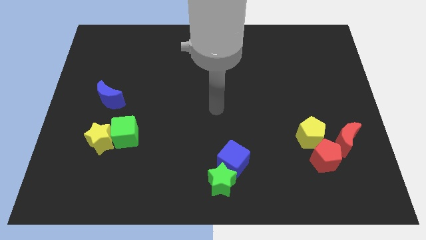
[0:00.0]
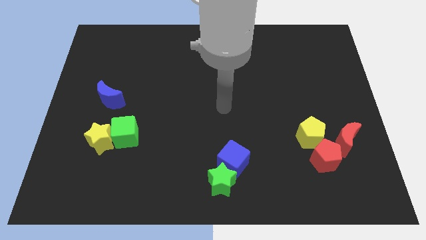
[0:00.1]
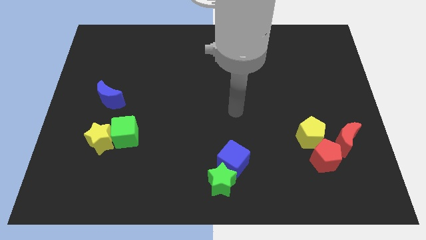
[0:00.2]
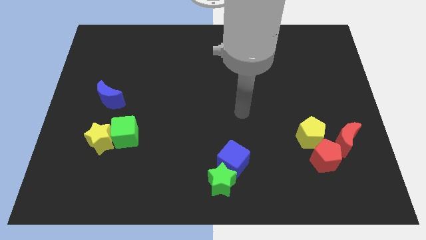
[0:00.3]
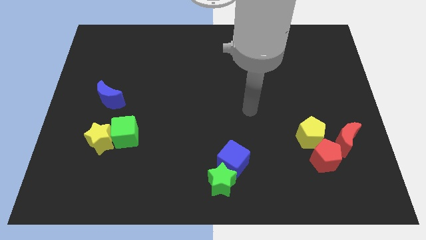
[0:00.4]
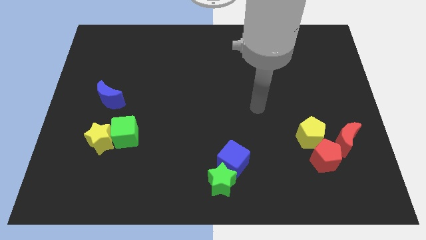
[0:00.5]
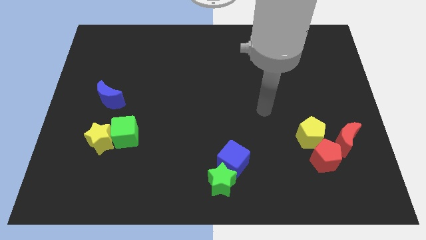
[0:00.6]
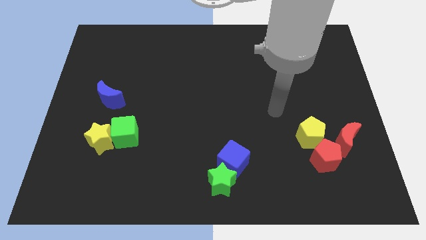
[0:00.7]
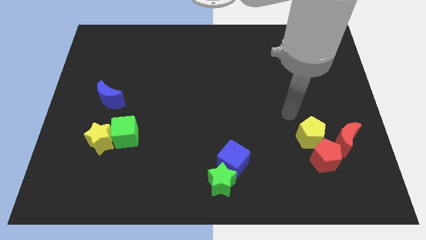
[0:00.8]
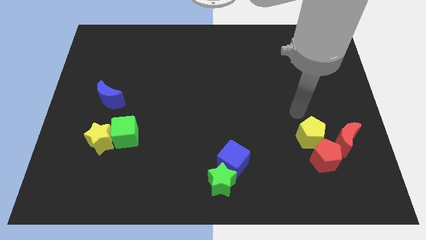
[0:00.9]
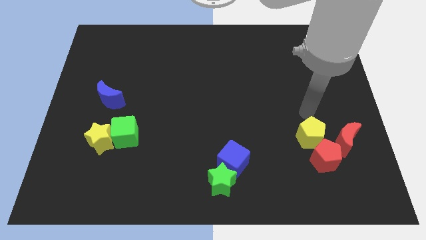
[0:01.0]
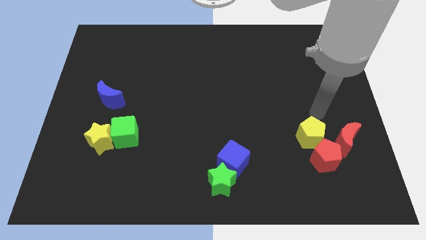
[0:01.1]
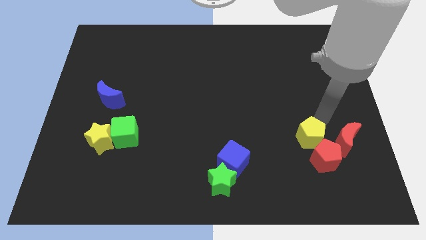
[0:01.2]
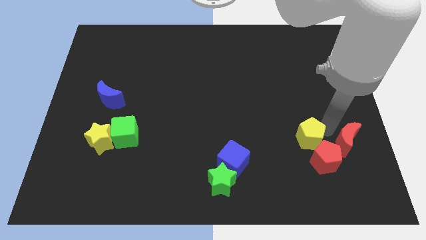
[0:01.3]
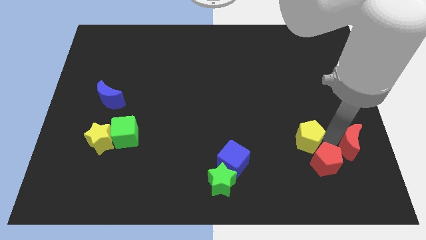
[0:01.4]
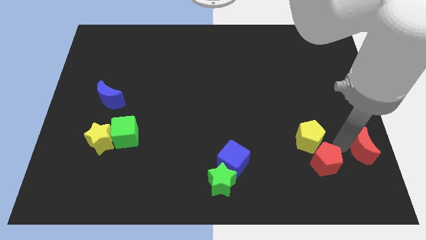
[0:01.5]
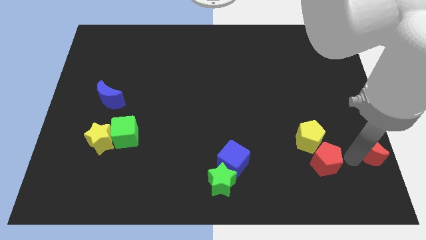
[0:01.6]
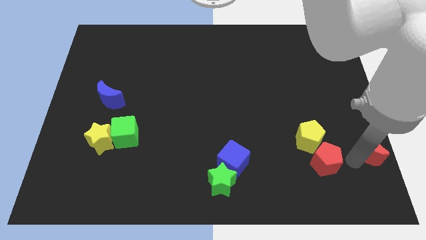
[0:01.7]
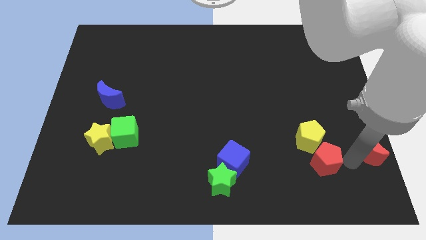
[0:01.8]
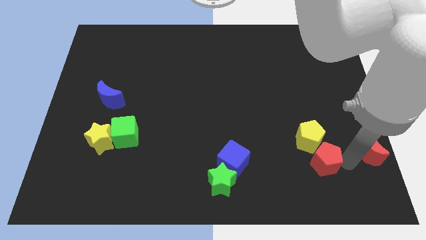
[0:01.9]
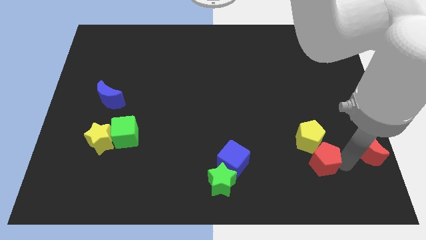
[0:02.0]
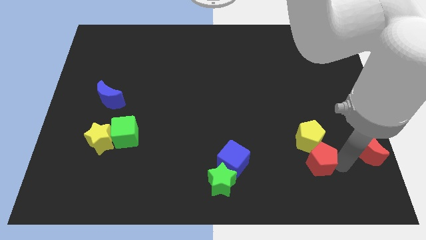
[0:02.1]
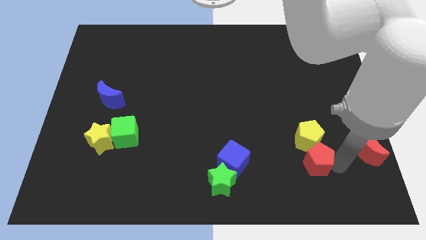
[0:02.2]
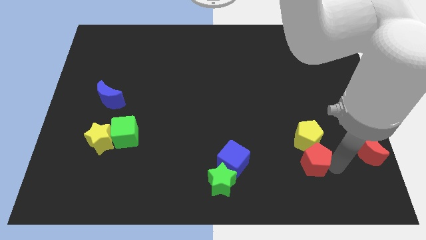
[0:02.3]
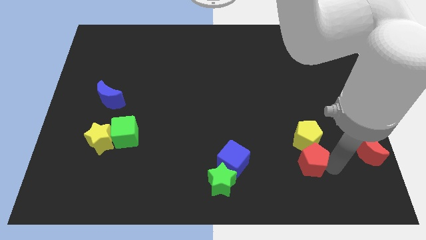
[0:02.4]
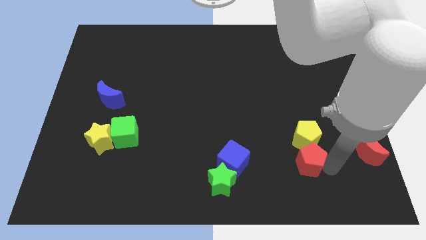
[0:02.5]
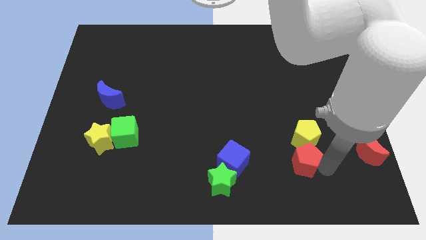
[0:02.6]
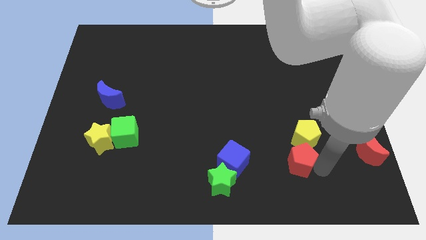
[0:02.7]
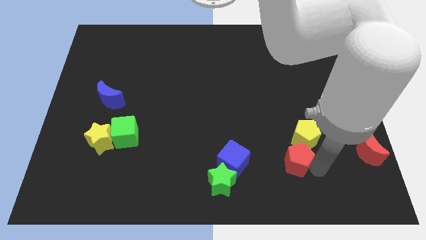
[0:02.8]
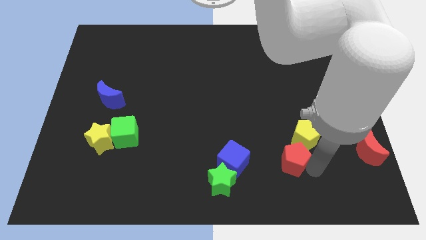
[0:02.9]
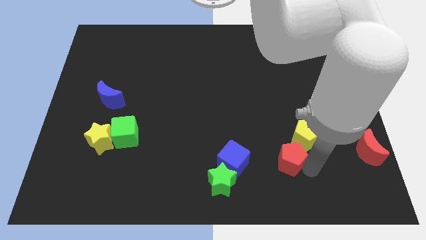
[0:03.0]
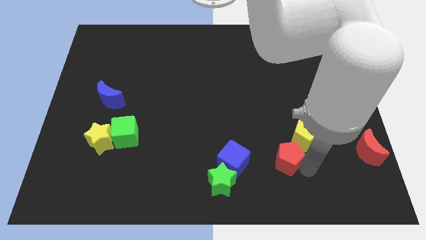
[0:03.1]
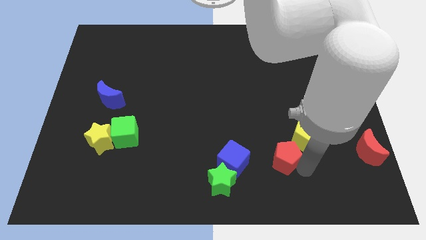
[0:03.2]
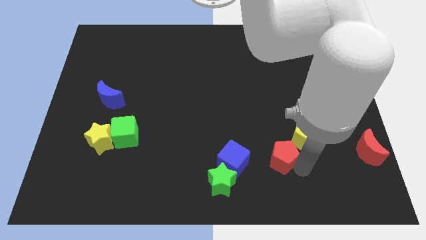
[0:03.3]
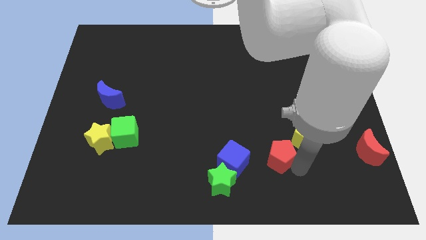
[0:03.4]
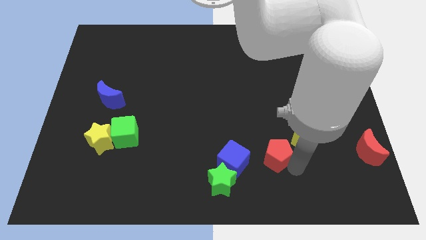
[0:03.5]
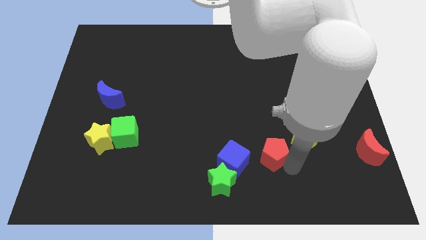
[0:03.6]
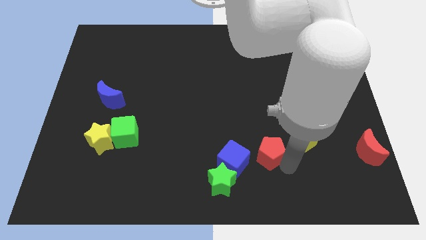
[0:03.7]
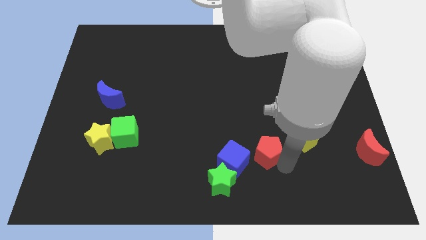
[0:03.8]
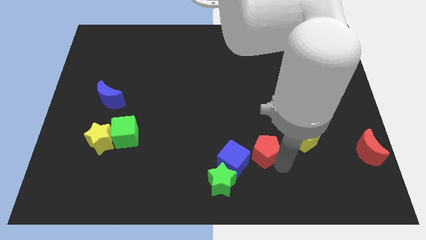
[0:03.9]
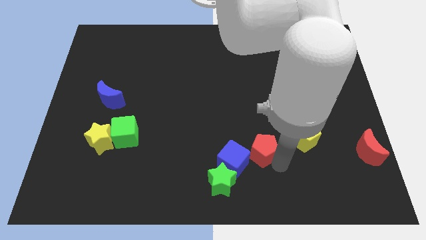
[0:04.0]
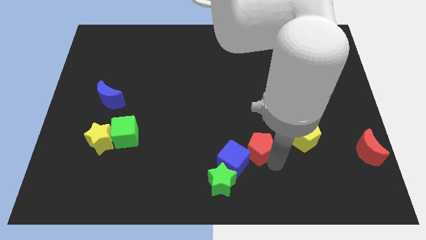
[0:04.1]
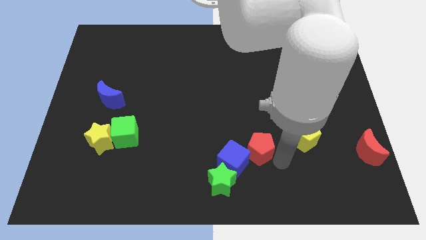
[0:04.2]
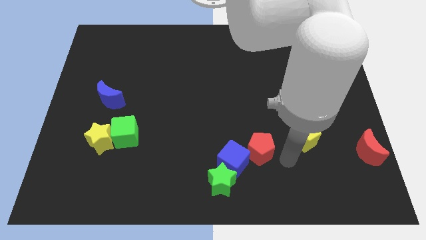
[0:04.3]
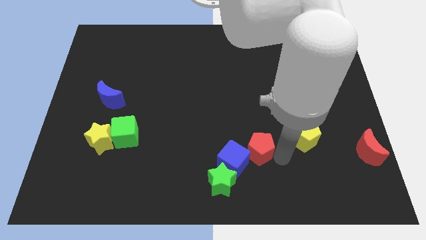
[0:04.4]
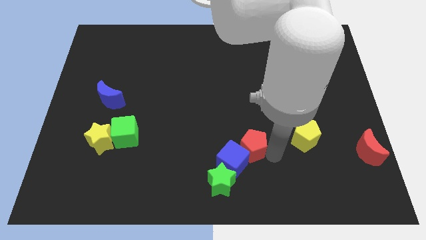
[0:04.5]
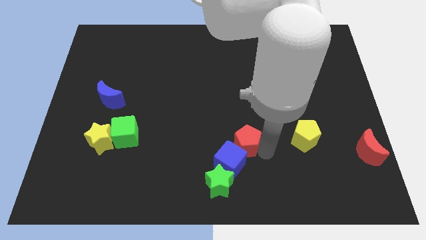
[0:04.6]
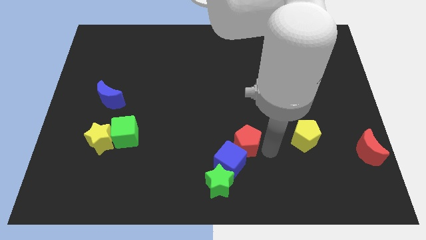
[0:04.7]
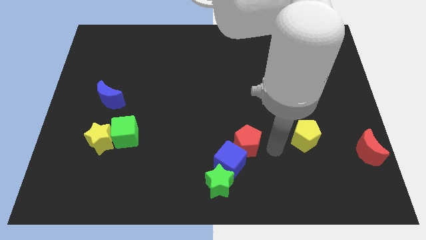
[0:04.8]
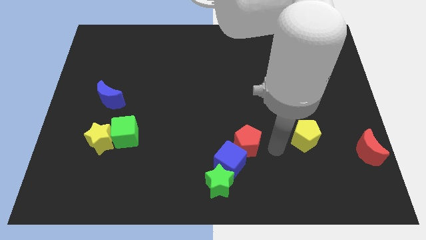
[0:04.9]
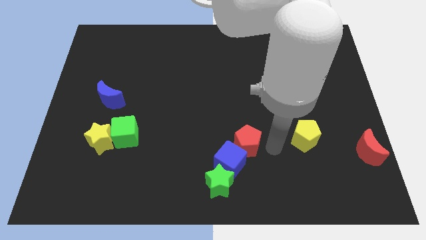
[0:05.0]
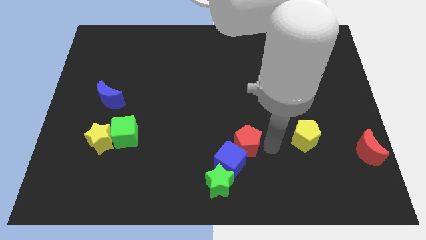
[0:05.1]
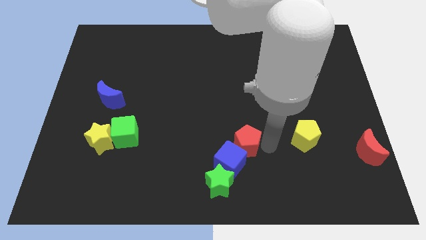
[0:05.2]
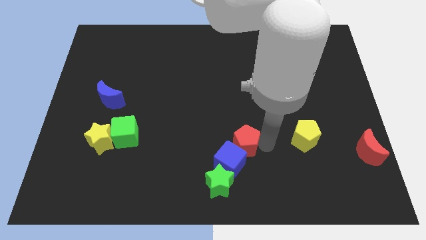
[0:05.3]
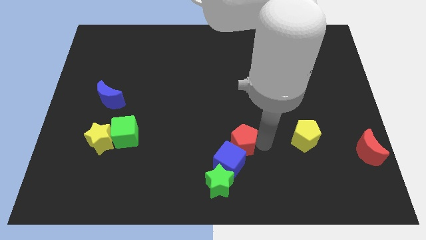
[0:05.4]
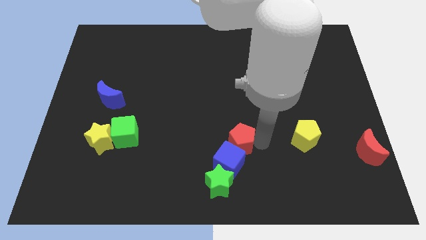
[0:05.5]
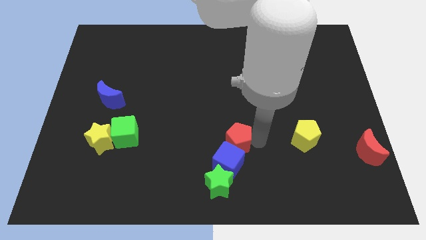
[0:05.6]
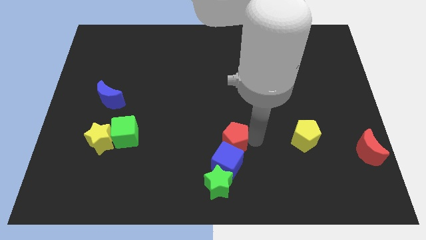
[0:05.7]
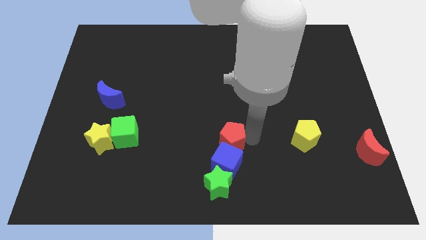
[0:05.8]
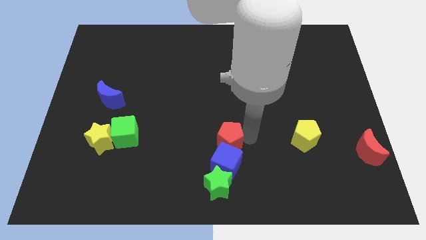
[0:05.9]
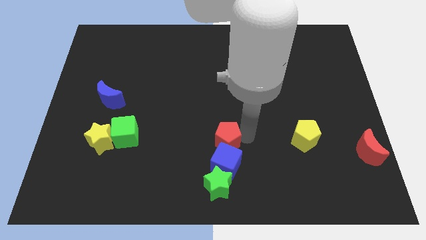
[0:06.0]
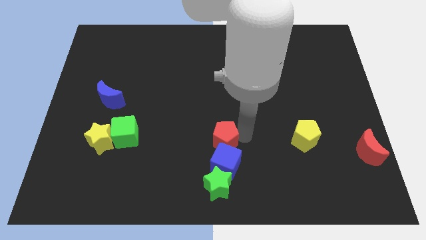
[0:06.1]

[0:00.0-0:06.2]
slide the red pentagon to the left

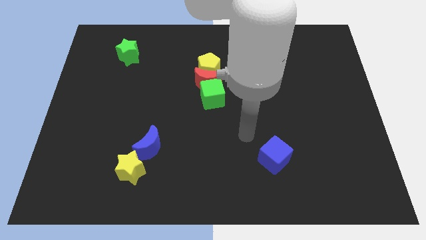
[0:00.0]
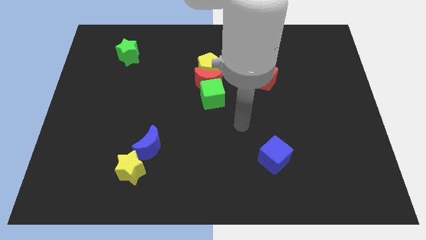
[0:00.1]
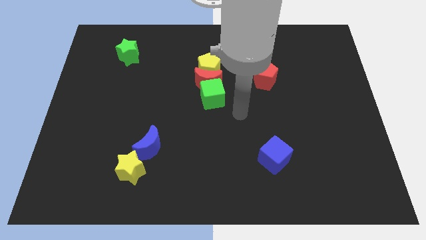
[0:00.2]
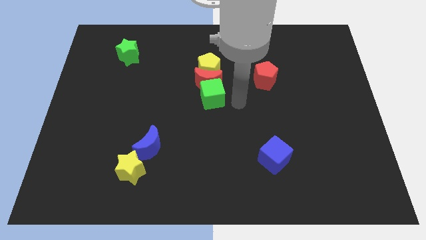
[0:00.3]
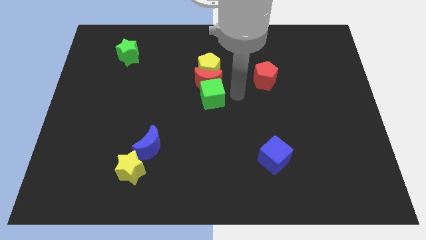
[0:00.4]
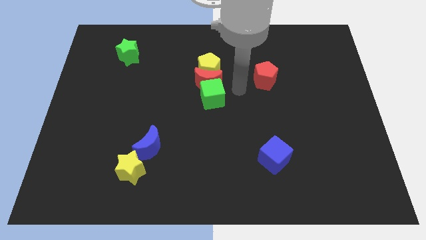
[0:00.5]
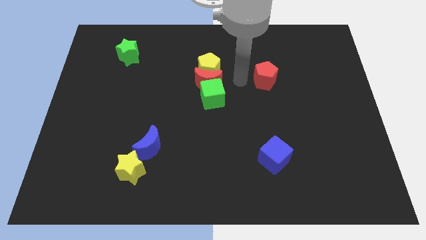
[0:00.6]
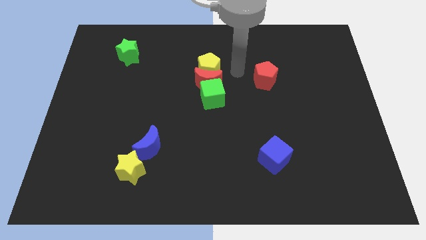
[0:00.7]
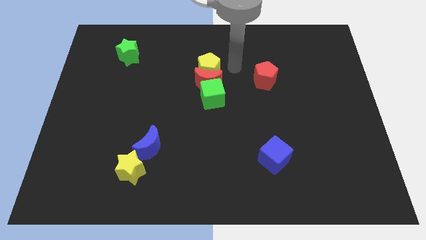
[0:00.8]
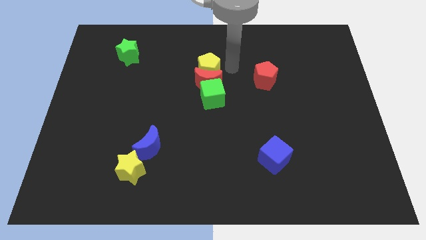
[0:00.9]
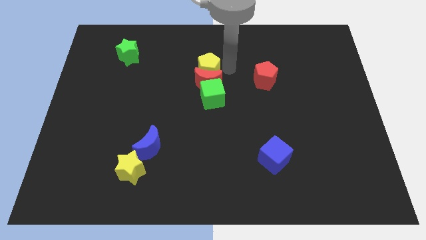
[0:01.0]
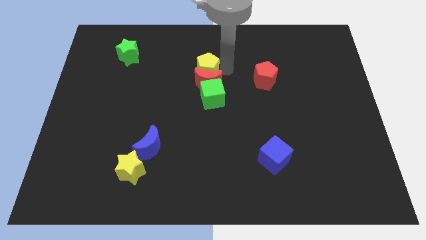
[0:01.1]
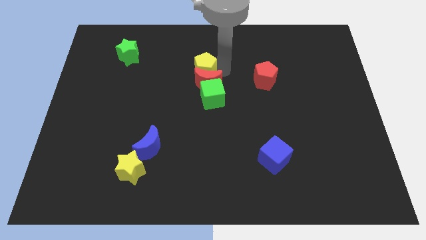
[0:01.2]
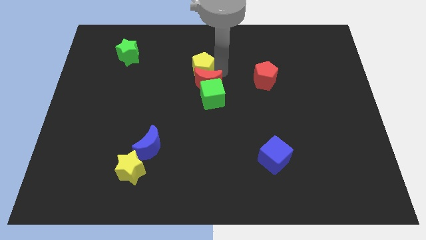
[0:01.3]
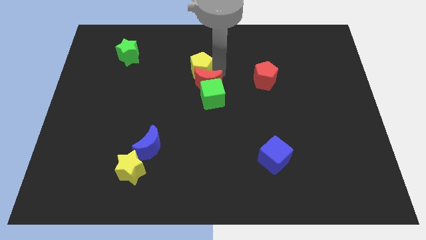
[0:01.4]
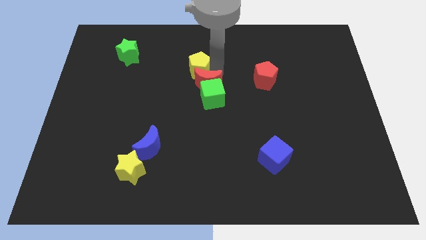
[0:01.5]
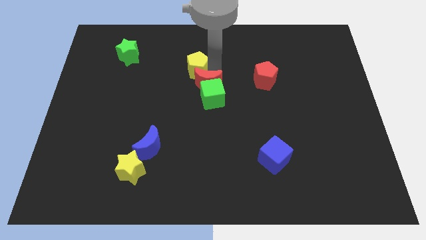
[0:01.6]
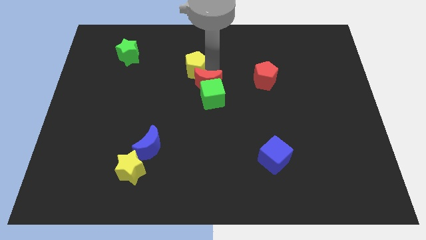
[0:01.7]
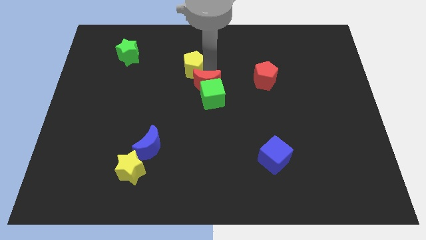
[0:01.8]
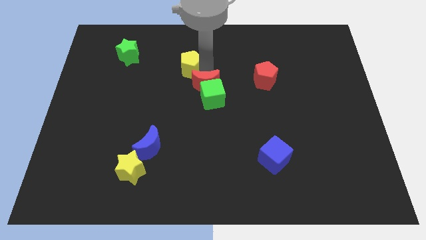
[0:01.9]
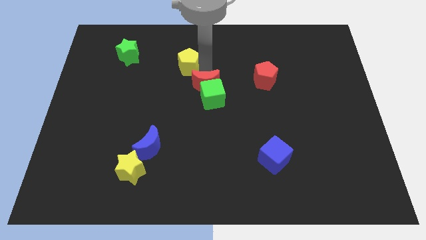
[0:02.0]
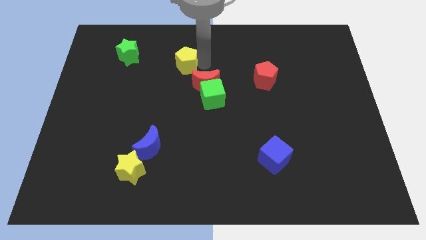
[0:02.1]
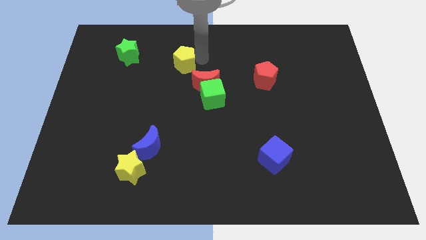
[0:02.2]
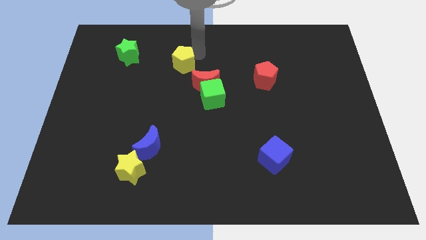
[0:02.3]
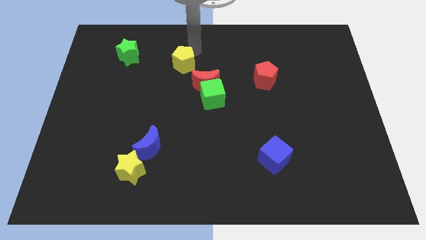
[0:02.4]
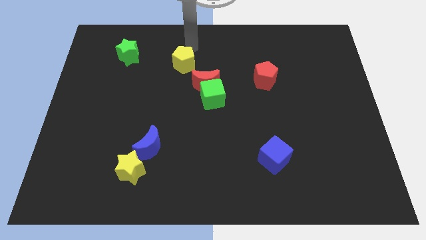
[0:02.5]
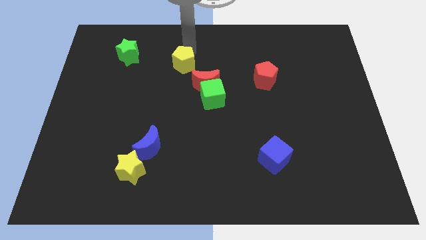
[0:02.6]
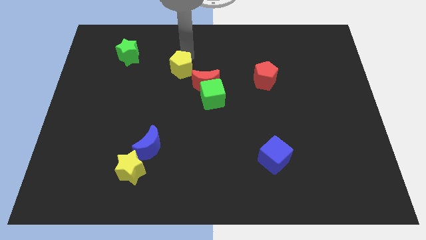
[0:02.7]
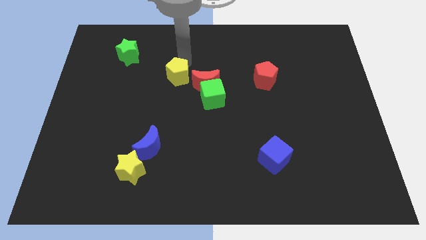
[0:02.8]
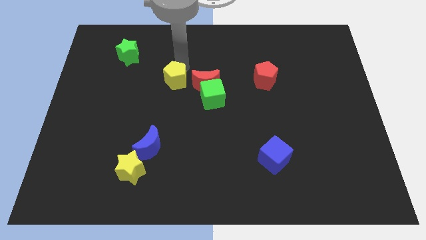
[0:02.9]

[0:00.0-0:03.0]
move the yellow pentagon a little down and then to the left
